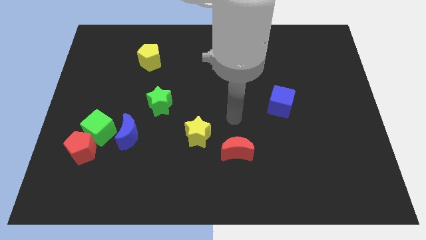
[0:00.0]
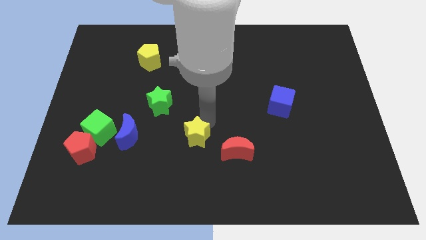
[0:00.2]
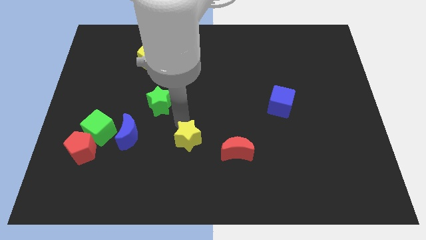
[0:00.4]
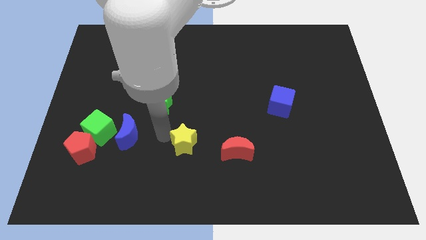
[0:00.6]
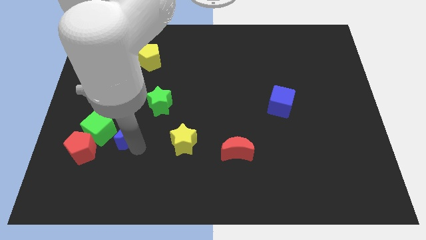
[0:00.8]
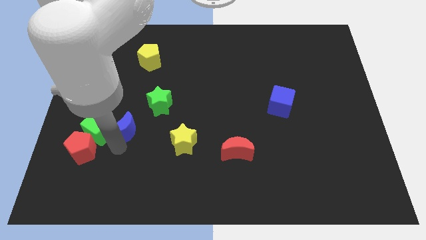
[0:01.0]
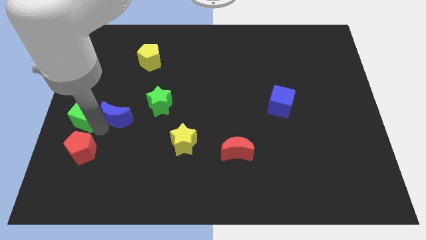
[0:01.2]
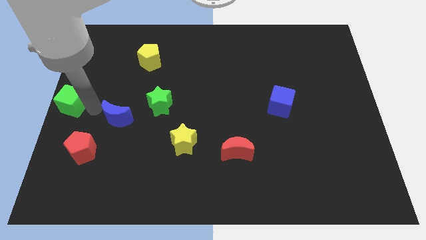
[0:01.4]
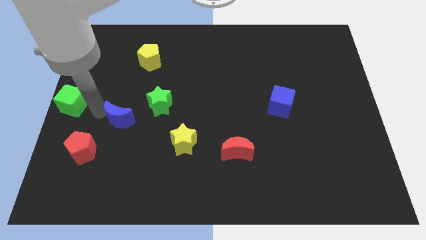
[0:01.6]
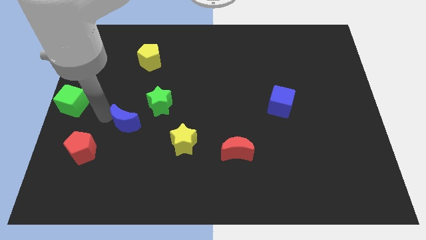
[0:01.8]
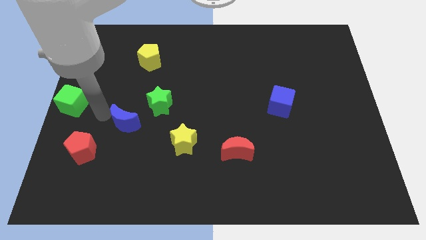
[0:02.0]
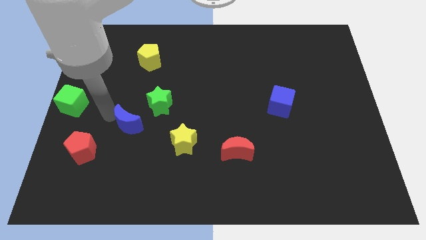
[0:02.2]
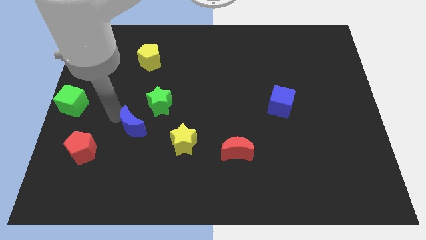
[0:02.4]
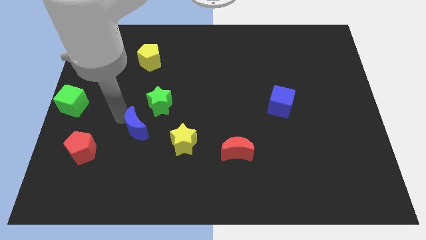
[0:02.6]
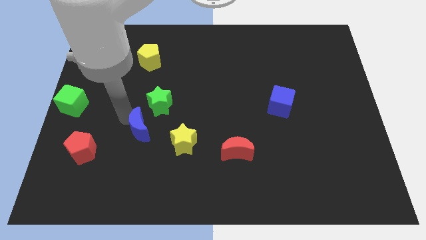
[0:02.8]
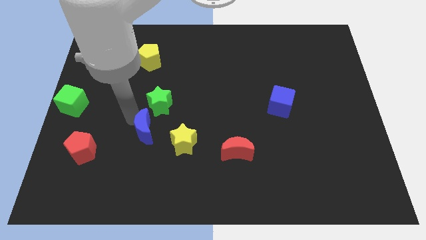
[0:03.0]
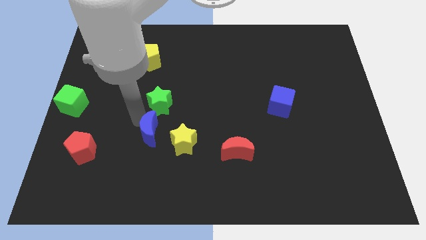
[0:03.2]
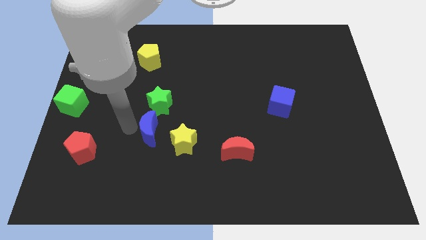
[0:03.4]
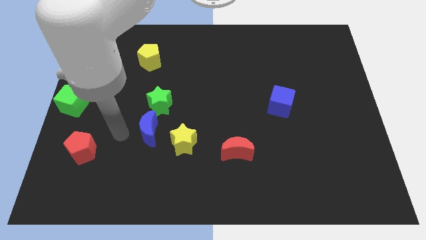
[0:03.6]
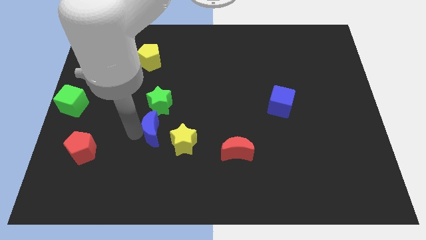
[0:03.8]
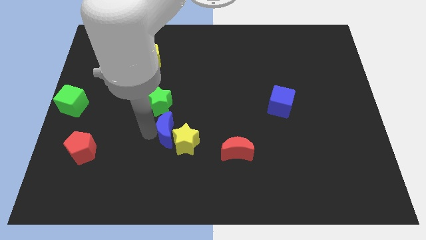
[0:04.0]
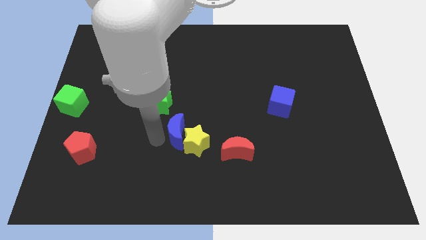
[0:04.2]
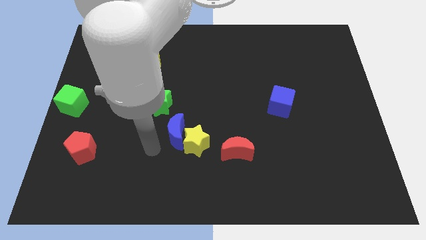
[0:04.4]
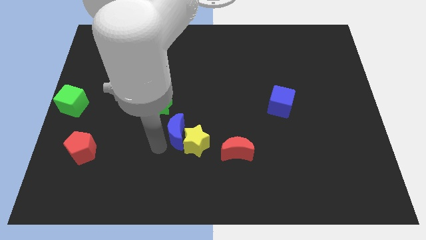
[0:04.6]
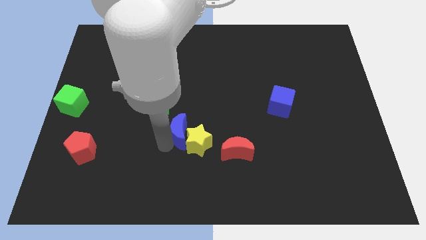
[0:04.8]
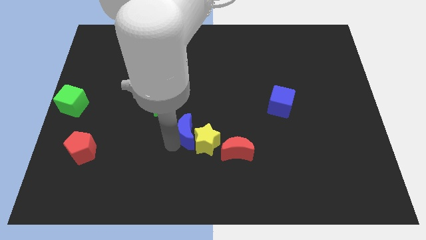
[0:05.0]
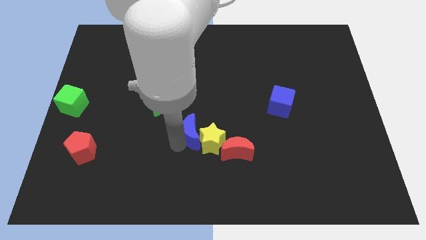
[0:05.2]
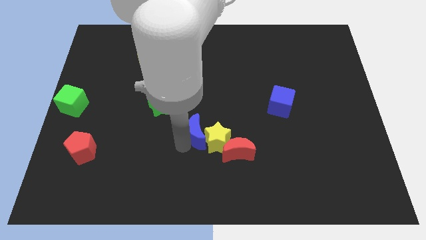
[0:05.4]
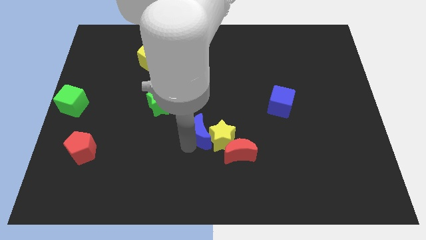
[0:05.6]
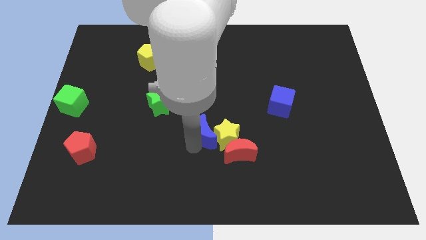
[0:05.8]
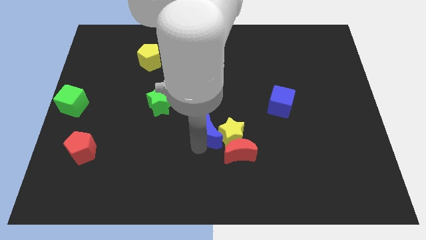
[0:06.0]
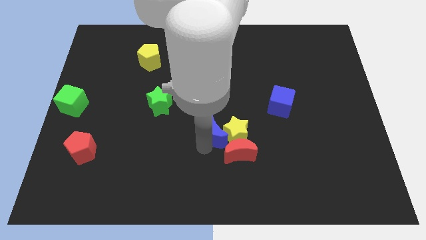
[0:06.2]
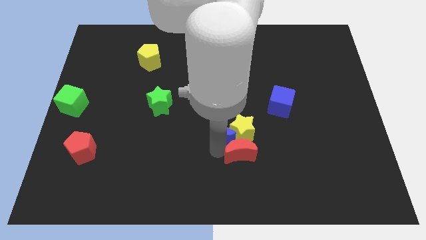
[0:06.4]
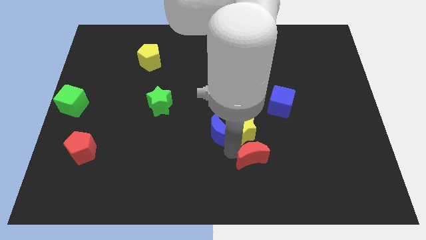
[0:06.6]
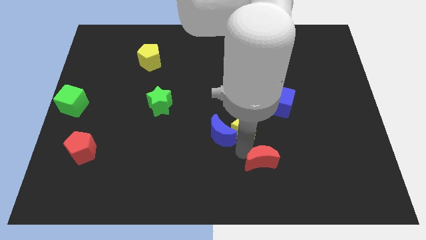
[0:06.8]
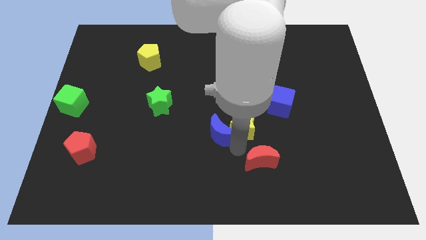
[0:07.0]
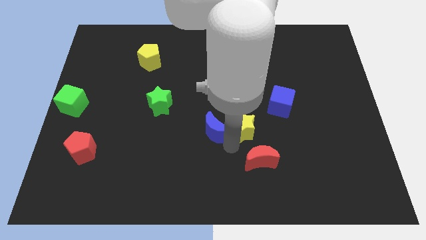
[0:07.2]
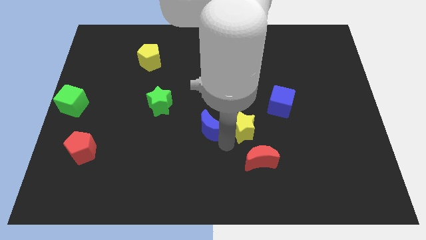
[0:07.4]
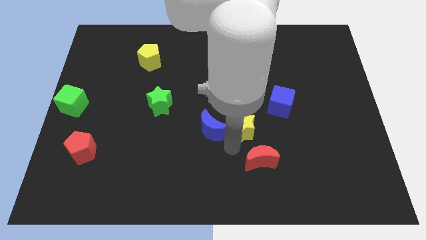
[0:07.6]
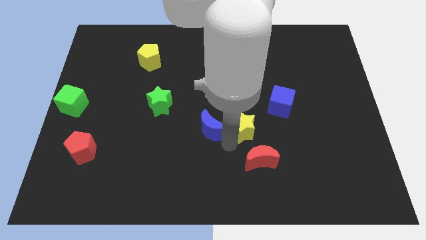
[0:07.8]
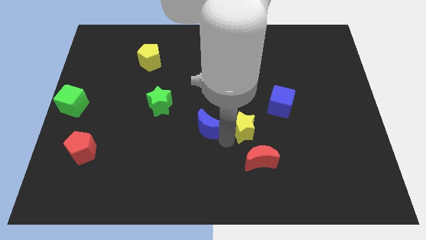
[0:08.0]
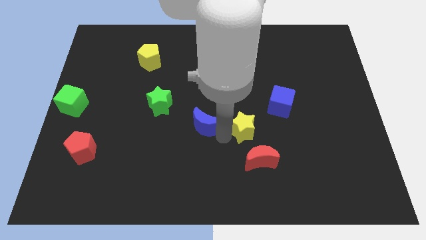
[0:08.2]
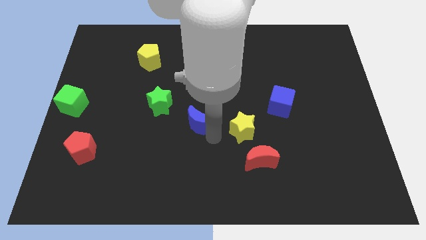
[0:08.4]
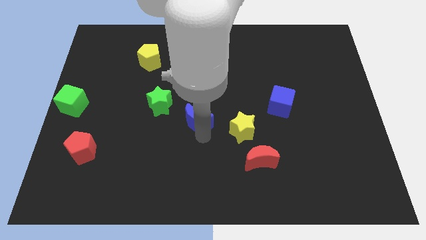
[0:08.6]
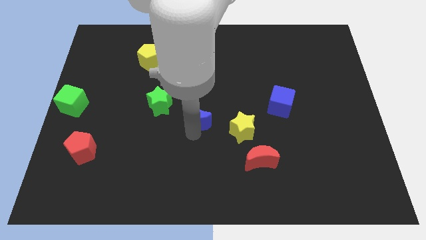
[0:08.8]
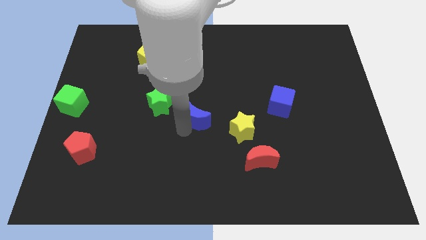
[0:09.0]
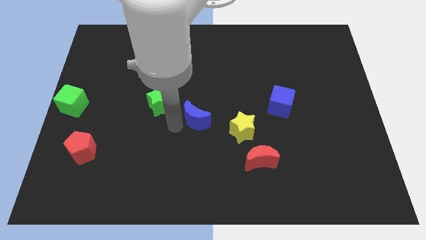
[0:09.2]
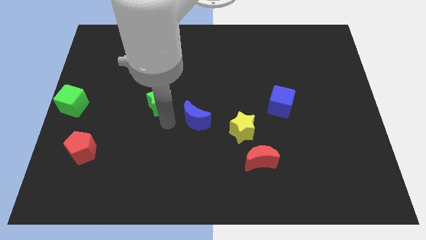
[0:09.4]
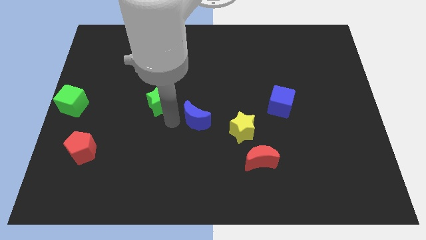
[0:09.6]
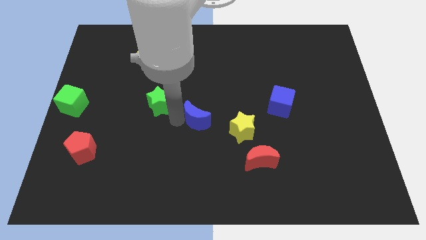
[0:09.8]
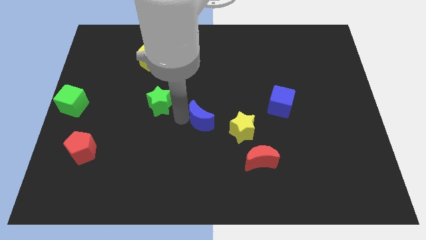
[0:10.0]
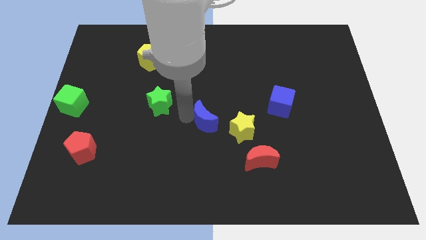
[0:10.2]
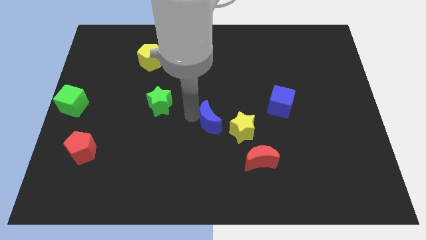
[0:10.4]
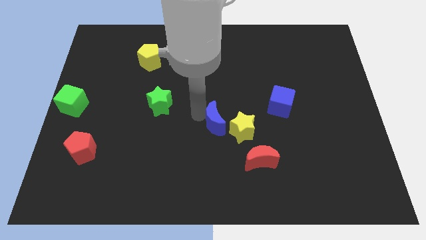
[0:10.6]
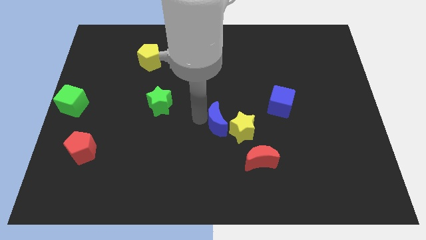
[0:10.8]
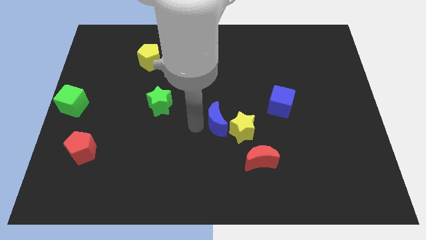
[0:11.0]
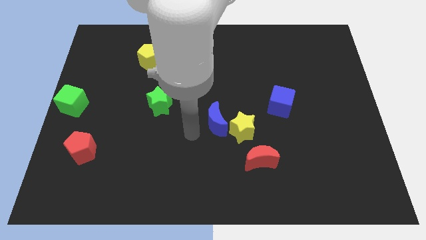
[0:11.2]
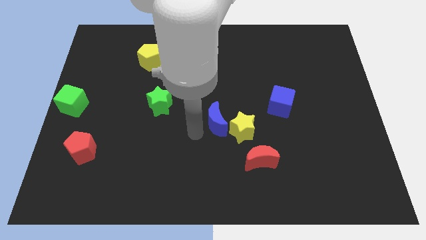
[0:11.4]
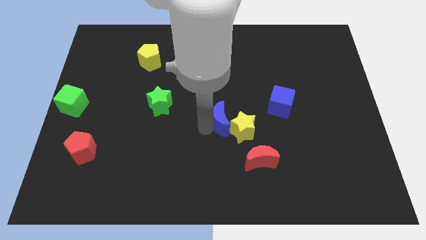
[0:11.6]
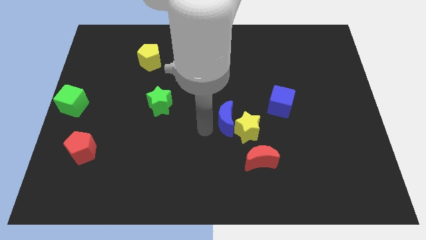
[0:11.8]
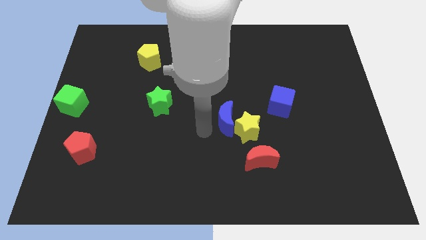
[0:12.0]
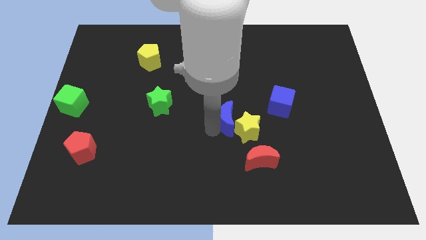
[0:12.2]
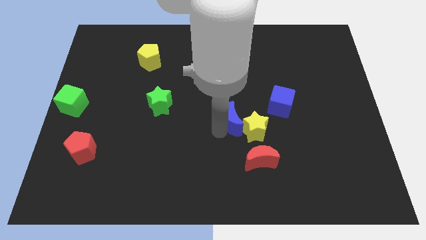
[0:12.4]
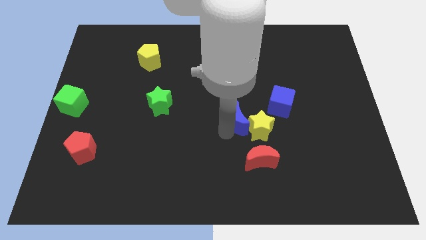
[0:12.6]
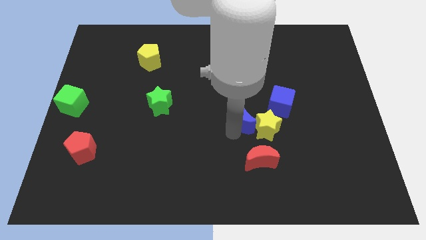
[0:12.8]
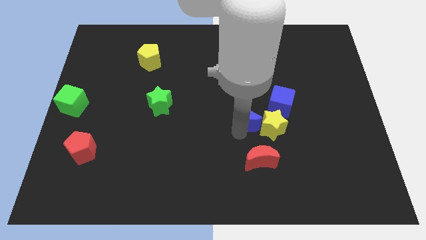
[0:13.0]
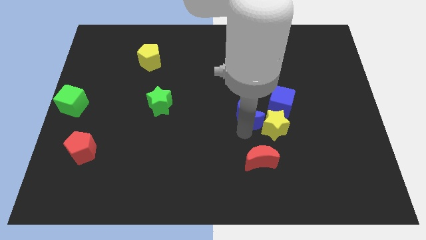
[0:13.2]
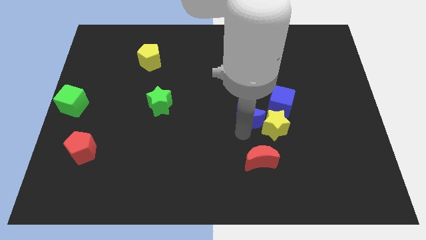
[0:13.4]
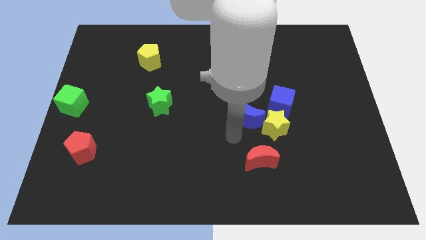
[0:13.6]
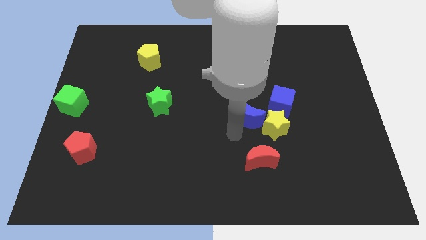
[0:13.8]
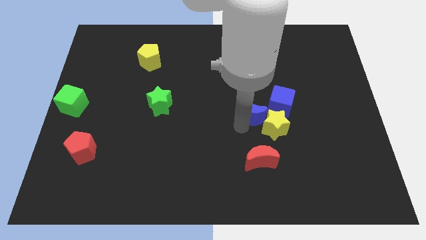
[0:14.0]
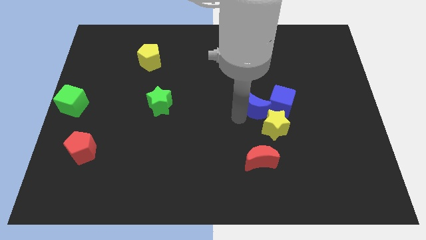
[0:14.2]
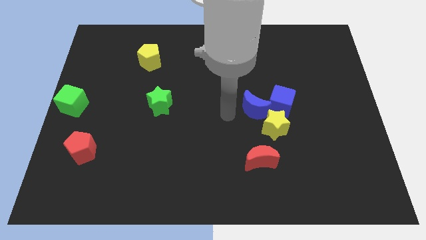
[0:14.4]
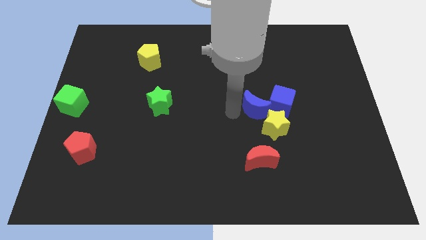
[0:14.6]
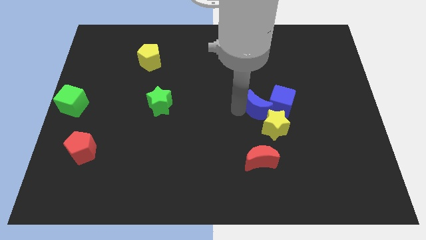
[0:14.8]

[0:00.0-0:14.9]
put the blue moon to the blue cube
